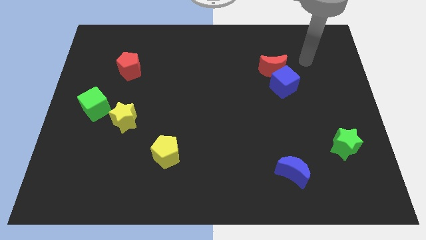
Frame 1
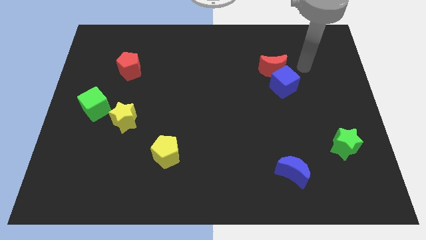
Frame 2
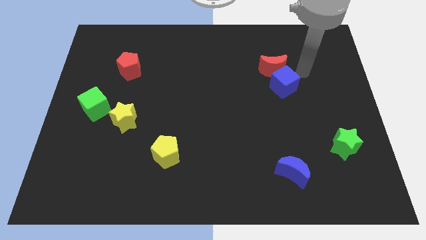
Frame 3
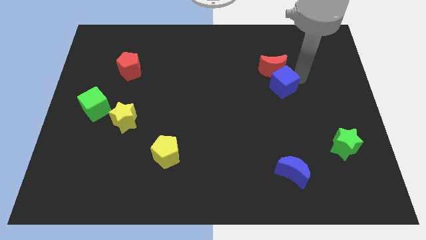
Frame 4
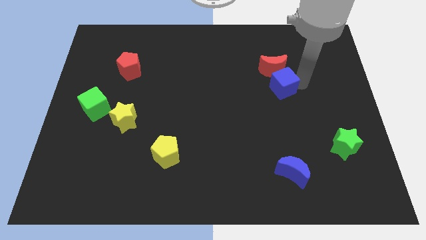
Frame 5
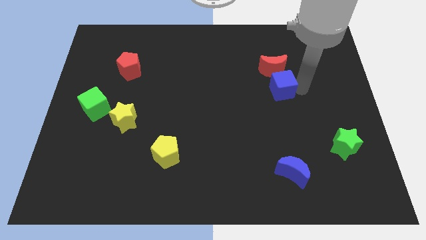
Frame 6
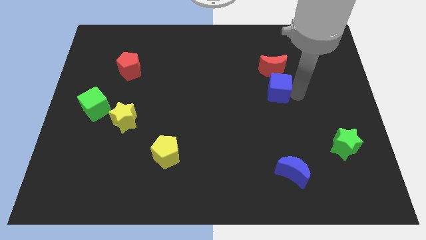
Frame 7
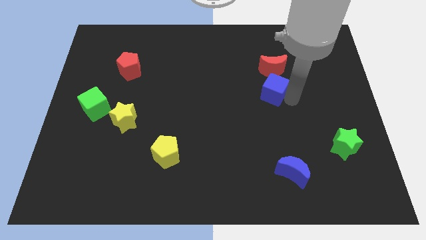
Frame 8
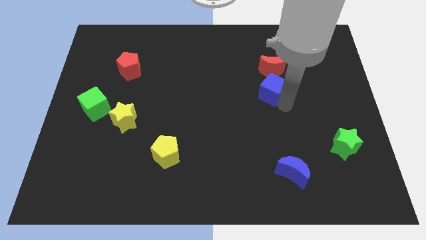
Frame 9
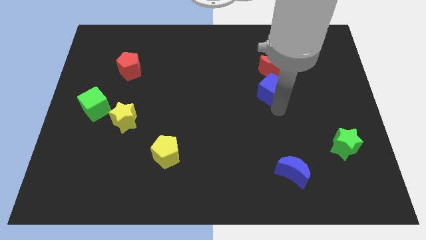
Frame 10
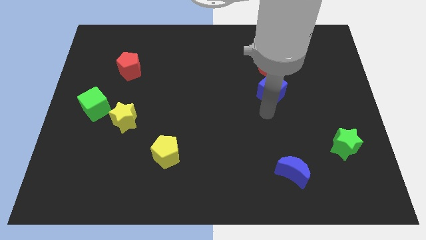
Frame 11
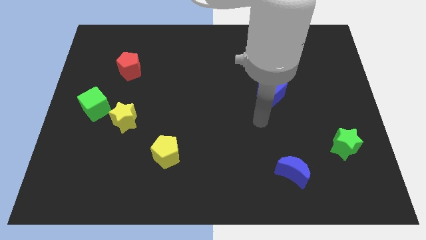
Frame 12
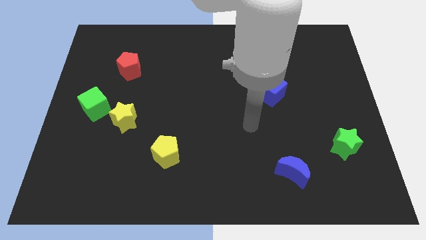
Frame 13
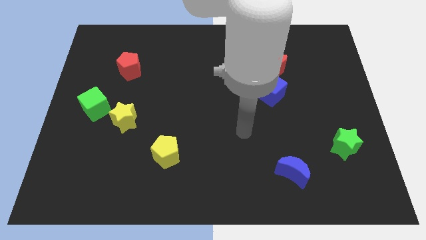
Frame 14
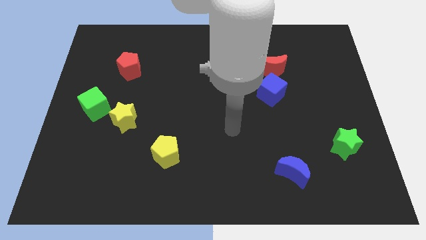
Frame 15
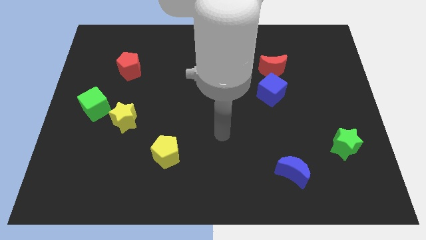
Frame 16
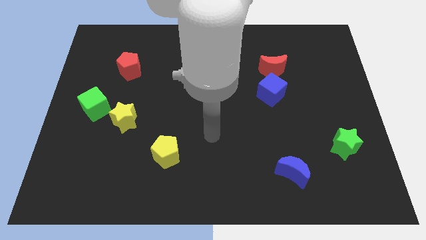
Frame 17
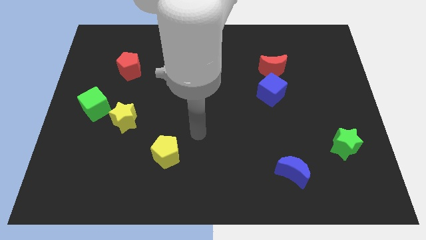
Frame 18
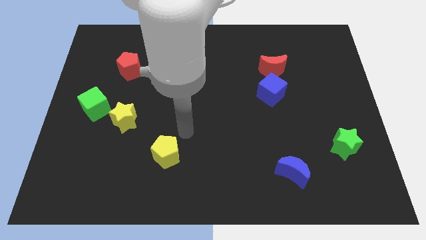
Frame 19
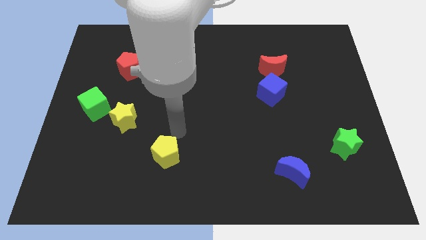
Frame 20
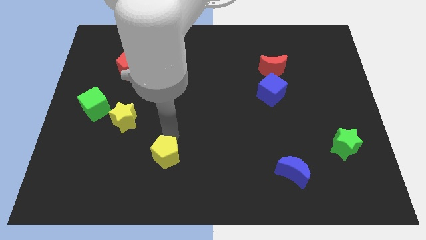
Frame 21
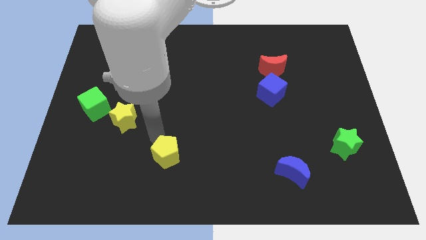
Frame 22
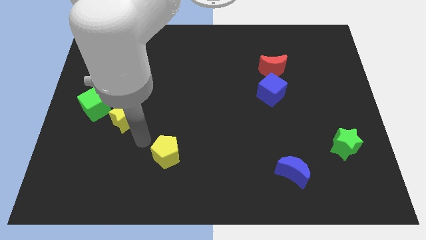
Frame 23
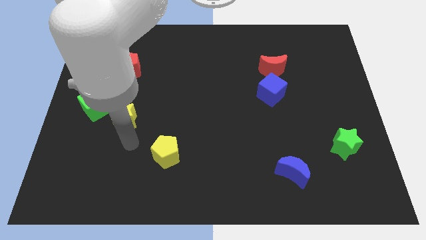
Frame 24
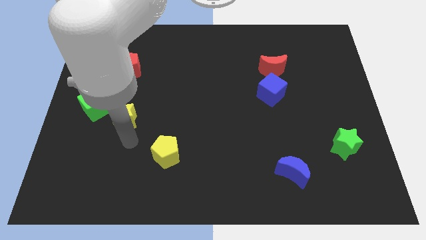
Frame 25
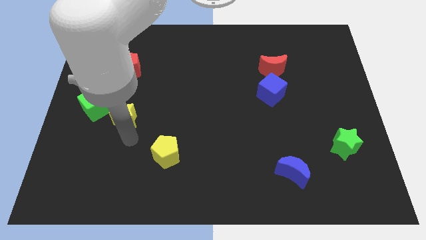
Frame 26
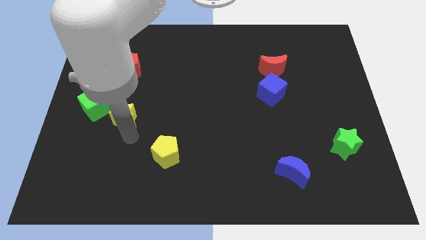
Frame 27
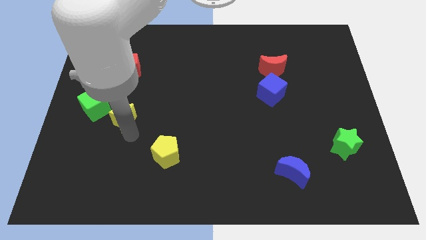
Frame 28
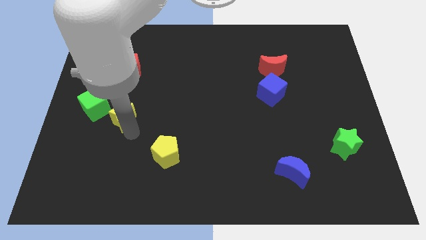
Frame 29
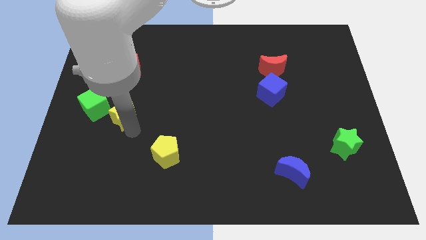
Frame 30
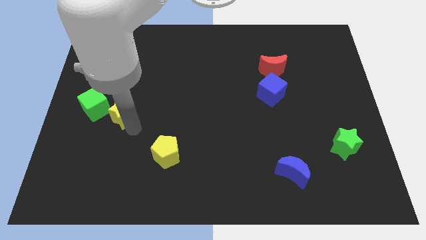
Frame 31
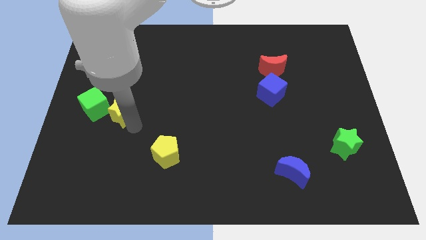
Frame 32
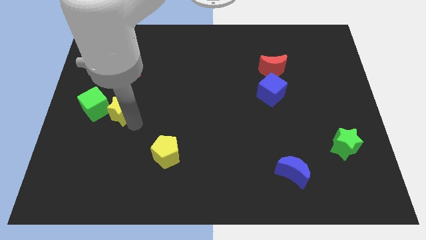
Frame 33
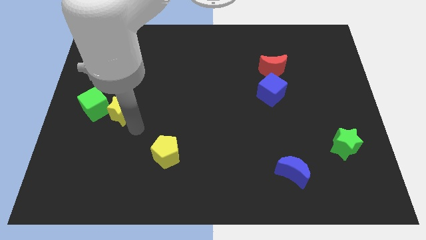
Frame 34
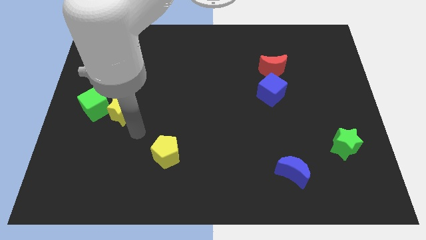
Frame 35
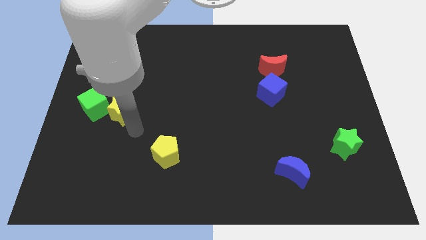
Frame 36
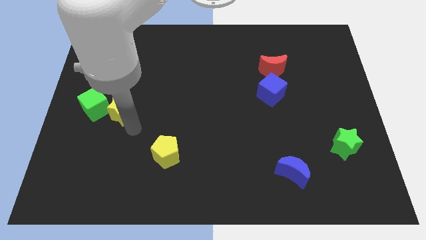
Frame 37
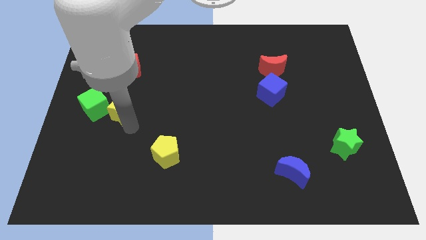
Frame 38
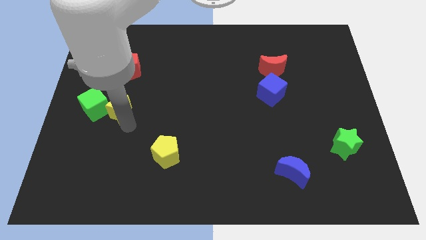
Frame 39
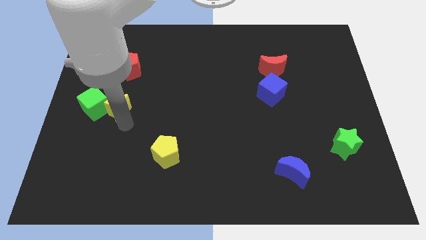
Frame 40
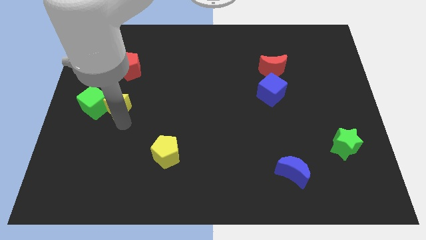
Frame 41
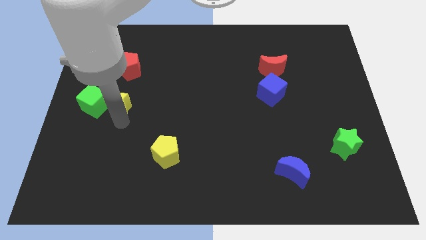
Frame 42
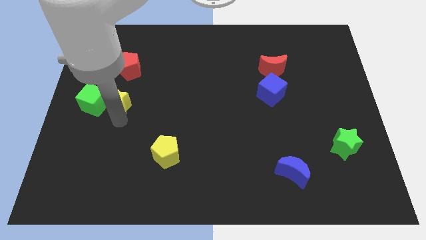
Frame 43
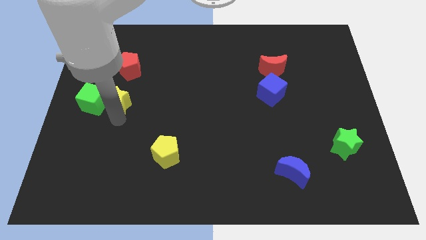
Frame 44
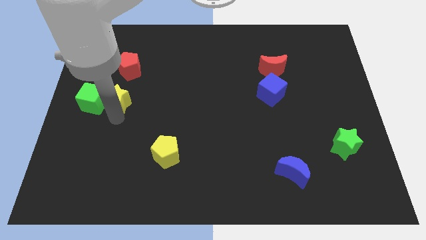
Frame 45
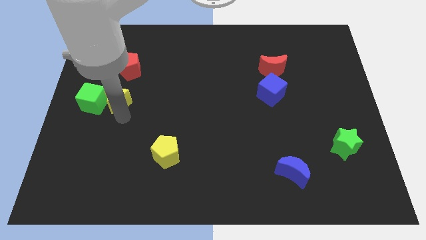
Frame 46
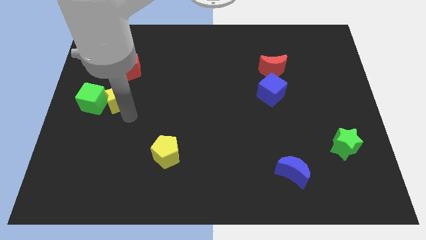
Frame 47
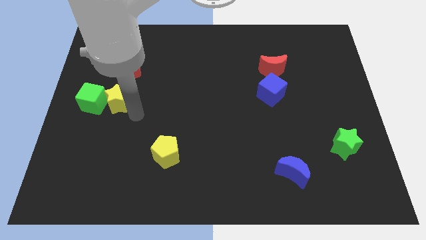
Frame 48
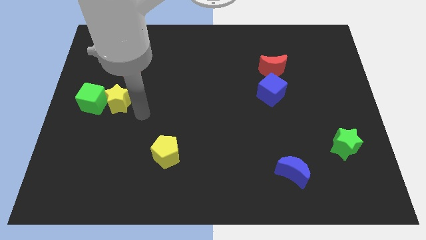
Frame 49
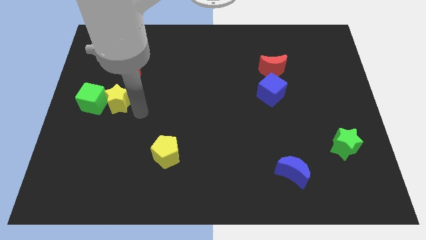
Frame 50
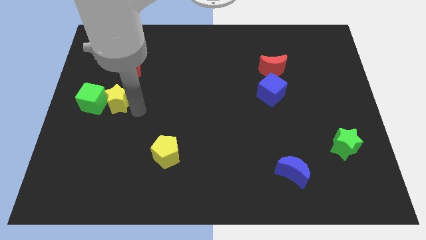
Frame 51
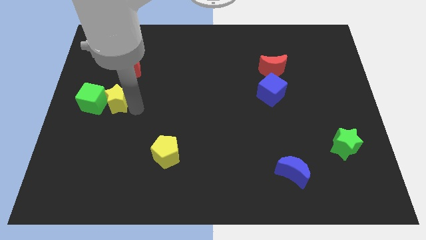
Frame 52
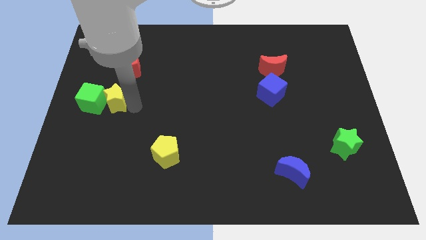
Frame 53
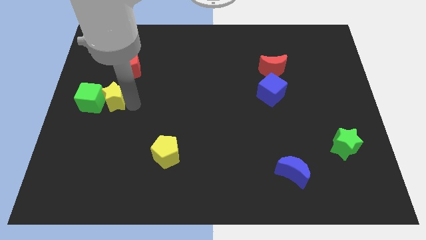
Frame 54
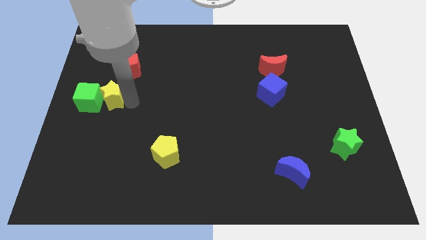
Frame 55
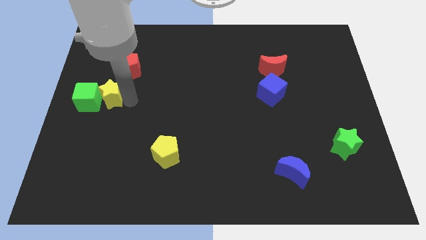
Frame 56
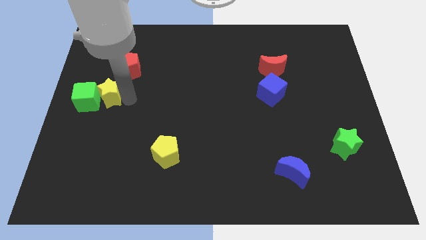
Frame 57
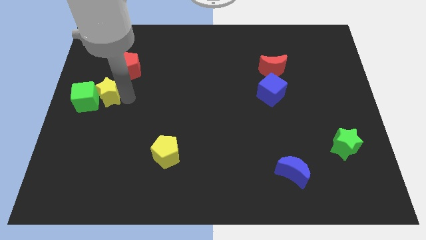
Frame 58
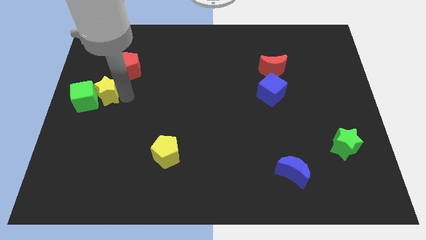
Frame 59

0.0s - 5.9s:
slide the yellow star to the left side

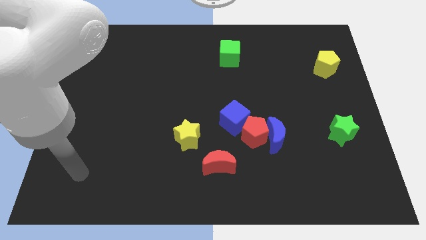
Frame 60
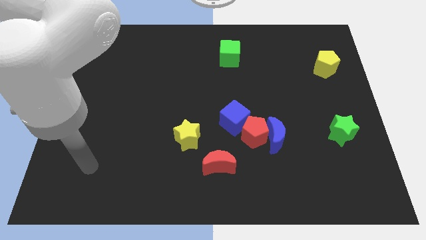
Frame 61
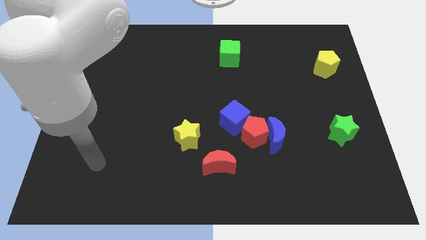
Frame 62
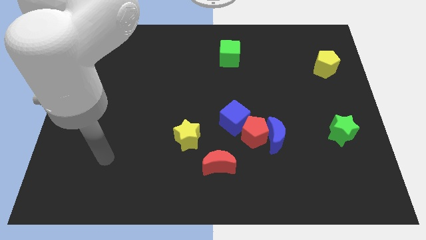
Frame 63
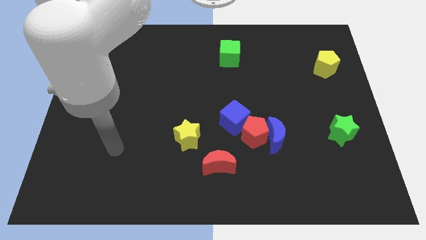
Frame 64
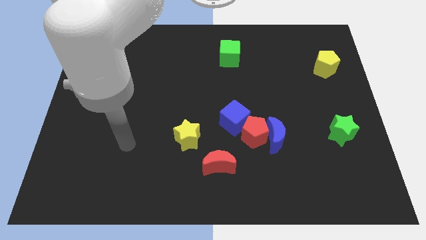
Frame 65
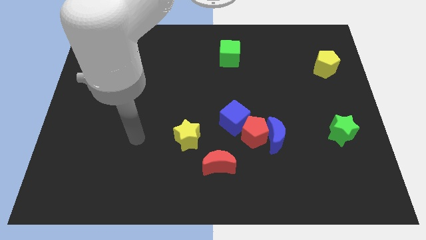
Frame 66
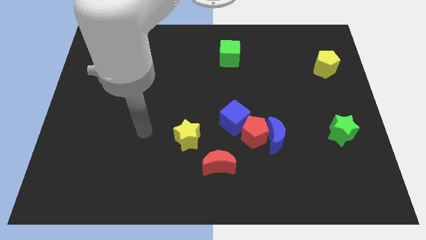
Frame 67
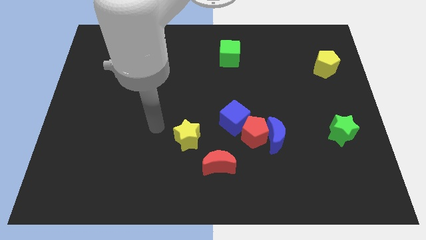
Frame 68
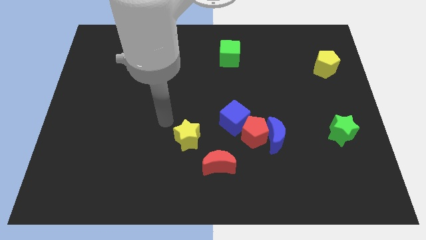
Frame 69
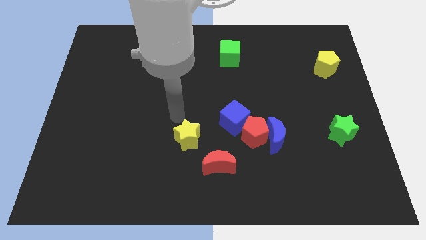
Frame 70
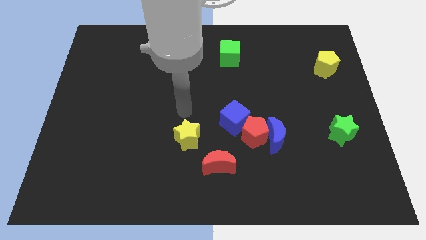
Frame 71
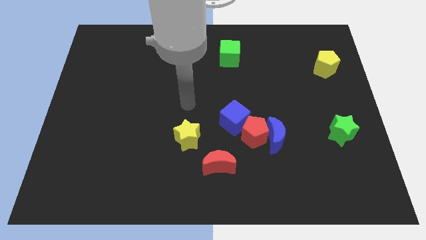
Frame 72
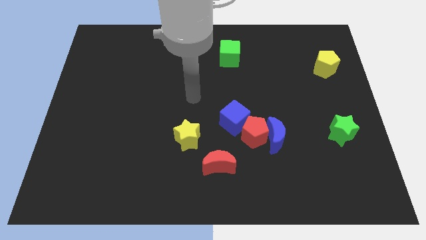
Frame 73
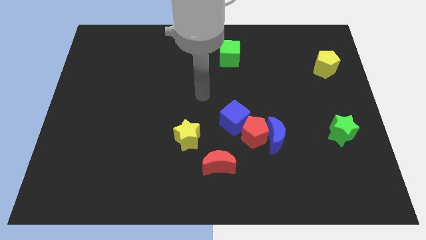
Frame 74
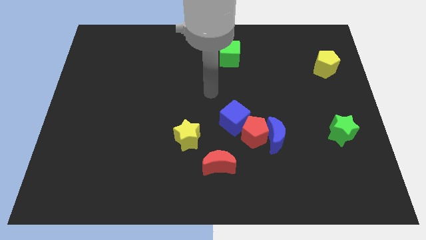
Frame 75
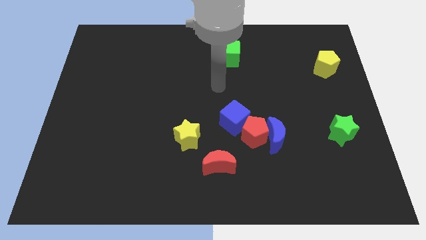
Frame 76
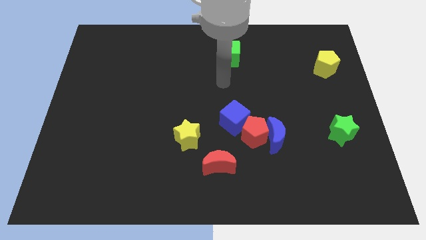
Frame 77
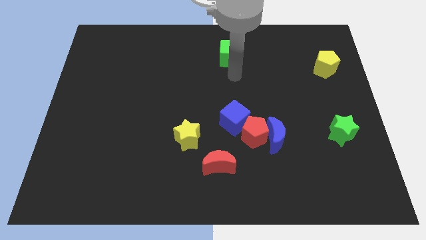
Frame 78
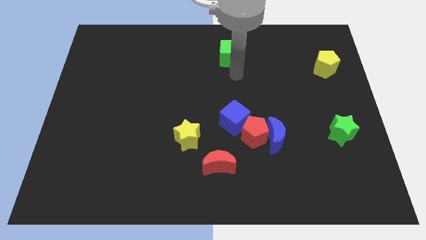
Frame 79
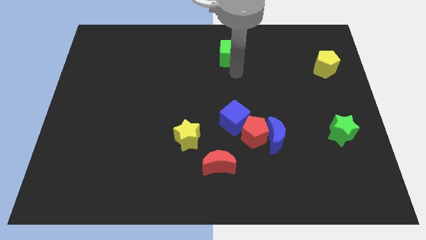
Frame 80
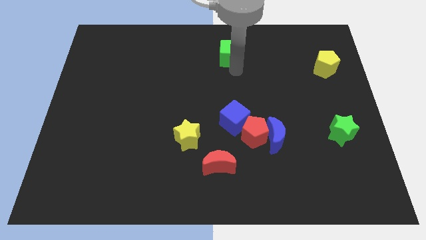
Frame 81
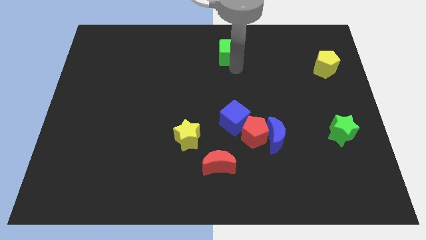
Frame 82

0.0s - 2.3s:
put the green cube to the towards your base
